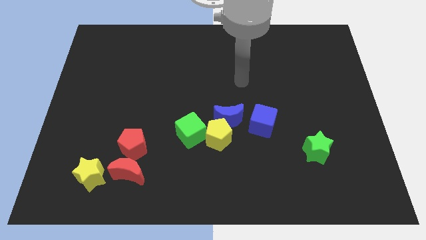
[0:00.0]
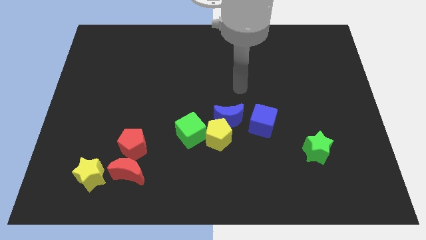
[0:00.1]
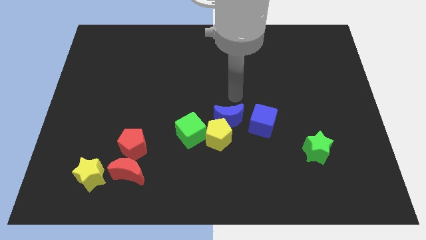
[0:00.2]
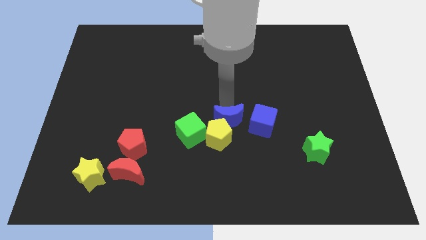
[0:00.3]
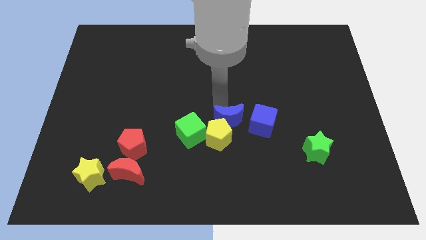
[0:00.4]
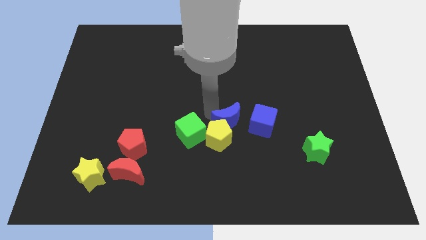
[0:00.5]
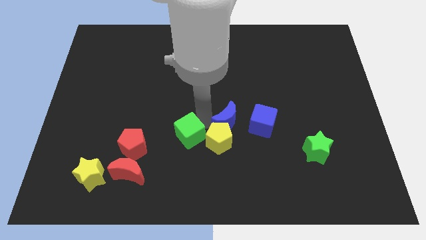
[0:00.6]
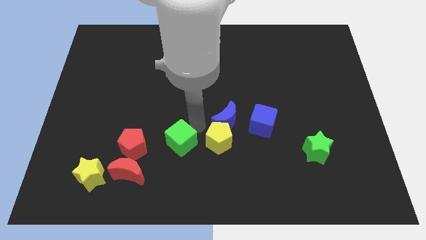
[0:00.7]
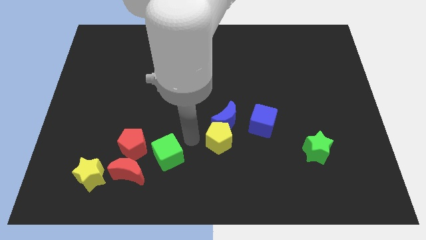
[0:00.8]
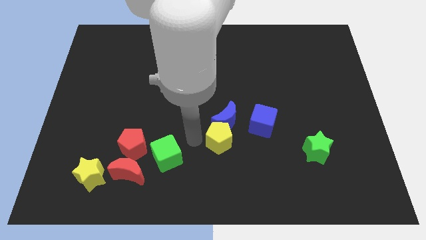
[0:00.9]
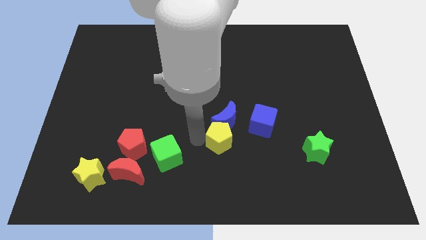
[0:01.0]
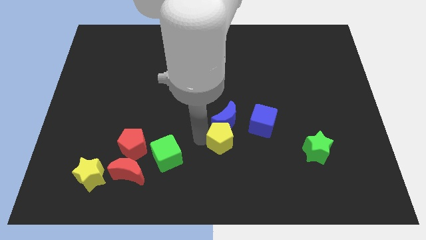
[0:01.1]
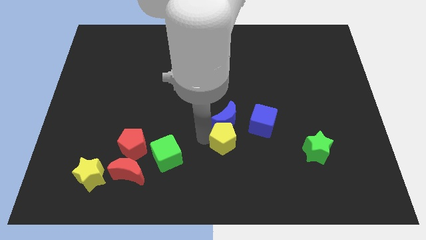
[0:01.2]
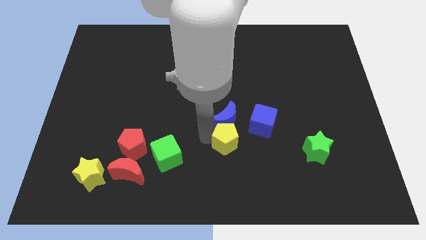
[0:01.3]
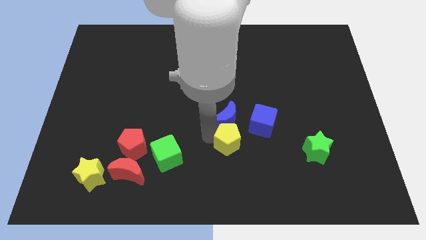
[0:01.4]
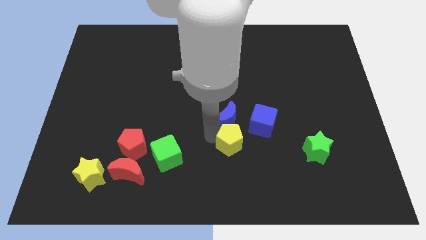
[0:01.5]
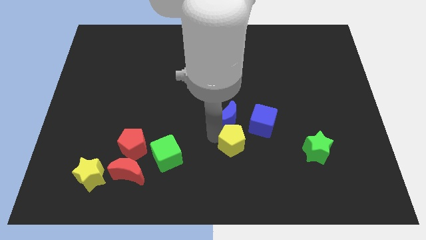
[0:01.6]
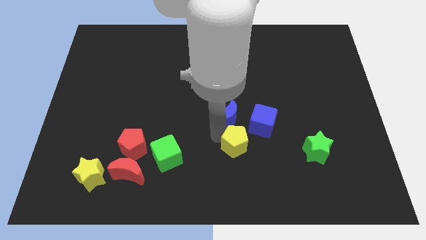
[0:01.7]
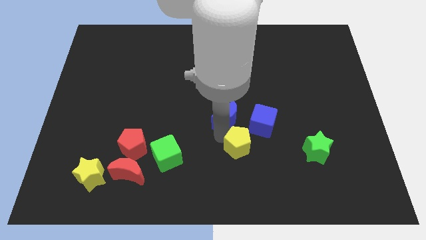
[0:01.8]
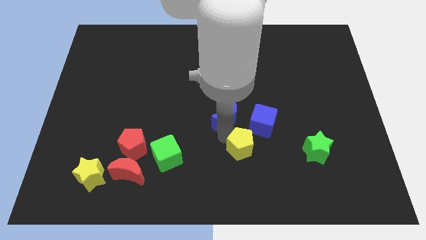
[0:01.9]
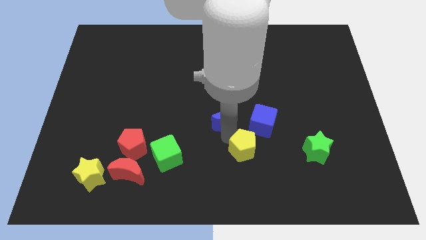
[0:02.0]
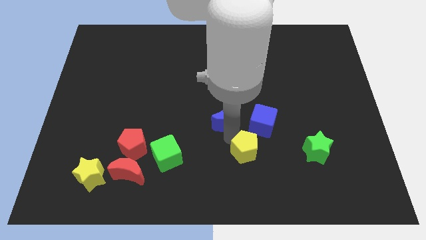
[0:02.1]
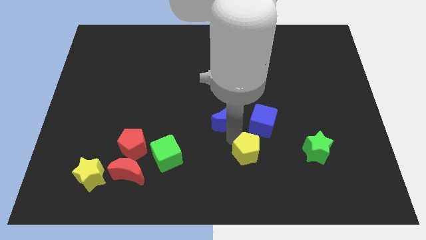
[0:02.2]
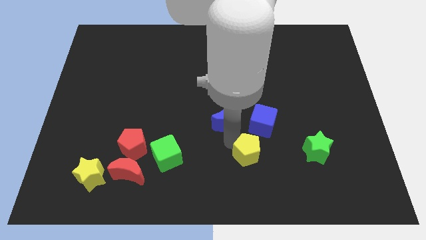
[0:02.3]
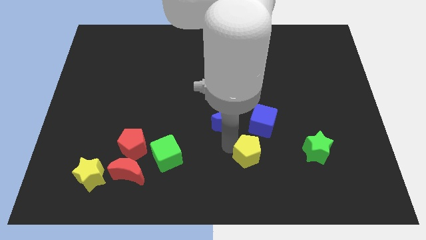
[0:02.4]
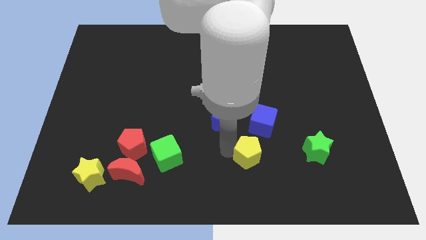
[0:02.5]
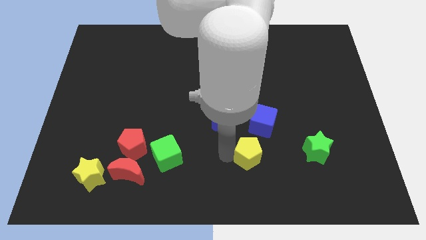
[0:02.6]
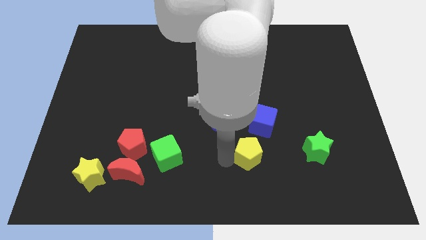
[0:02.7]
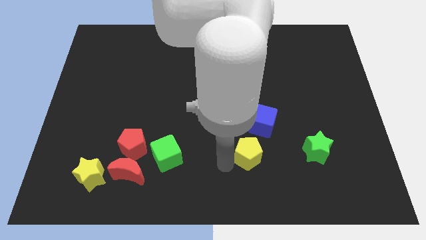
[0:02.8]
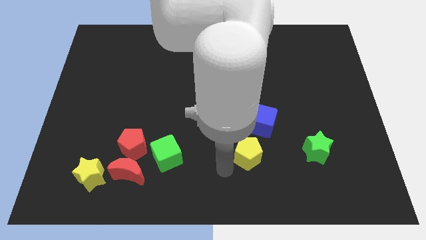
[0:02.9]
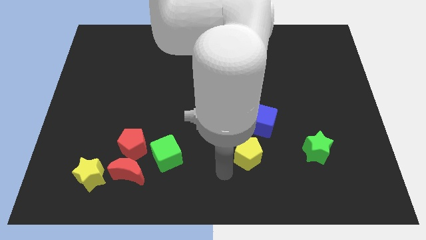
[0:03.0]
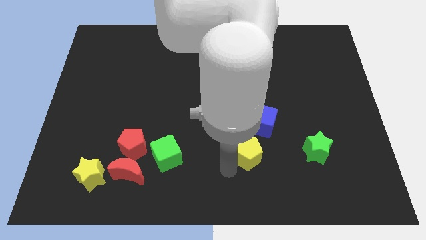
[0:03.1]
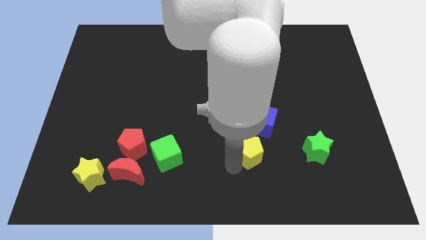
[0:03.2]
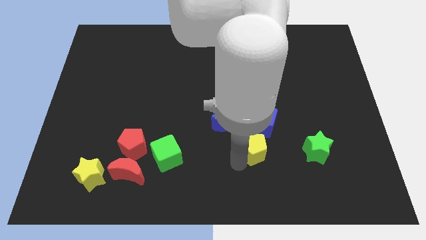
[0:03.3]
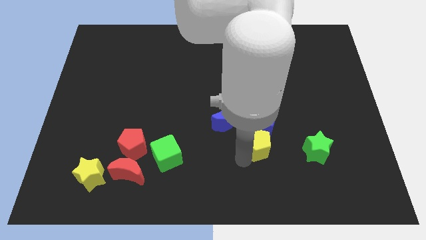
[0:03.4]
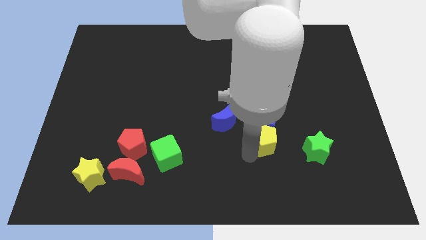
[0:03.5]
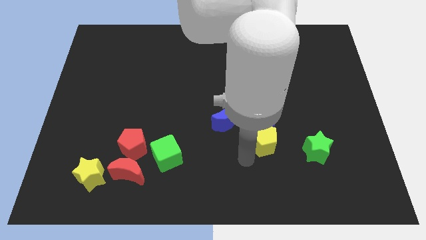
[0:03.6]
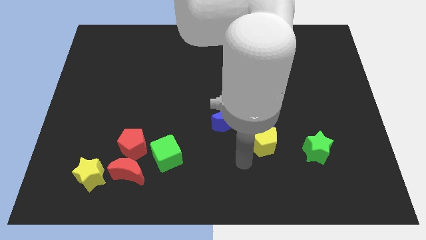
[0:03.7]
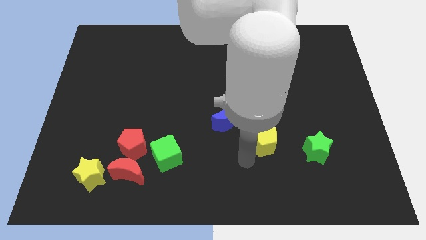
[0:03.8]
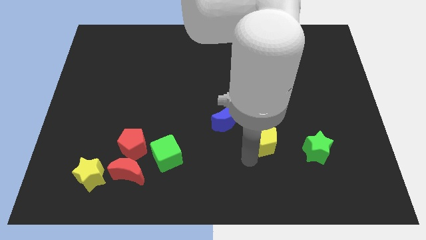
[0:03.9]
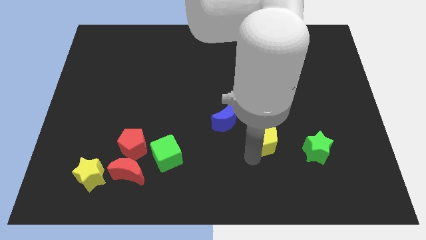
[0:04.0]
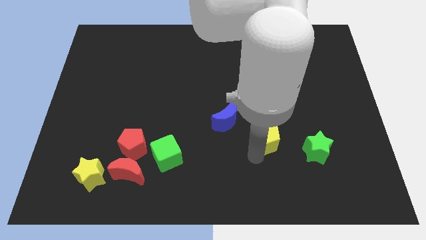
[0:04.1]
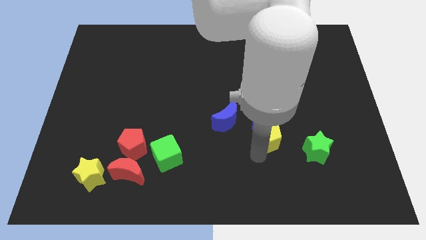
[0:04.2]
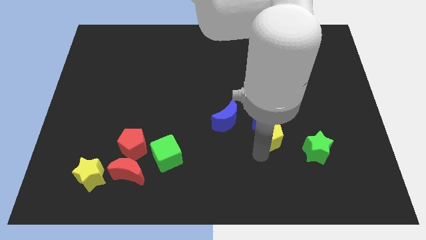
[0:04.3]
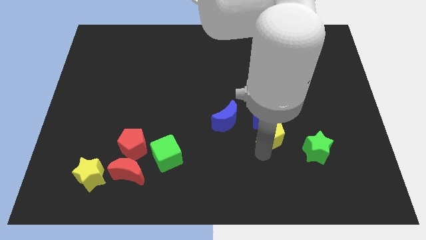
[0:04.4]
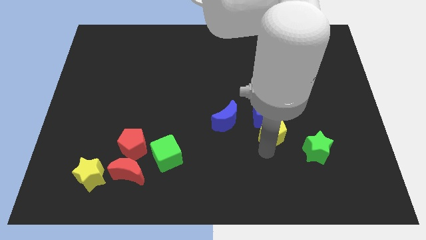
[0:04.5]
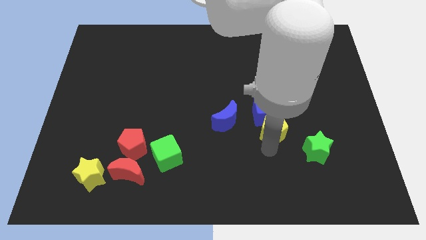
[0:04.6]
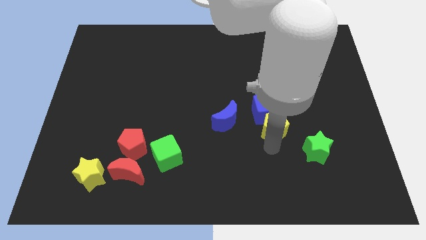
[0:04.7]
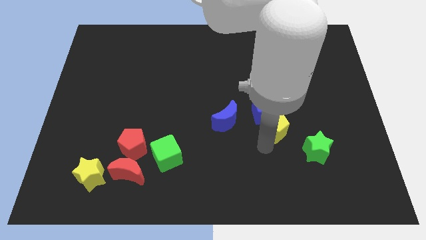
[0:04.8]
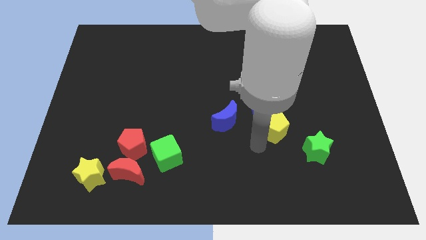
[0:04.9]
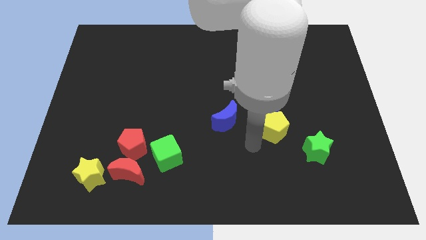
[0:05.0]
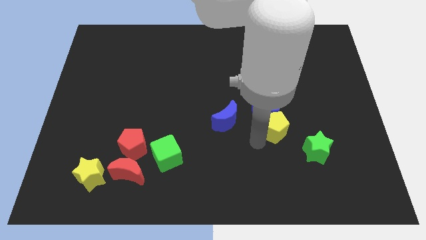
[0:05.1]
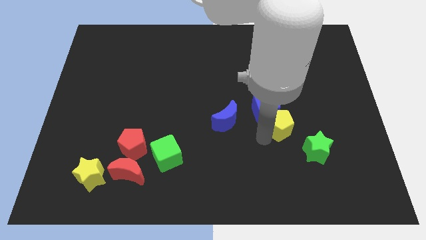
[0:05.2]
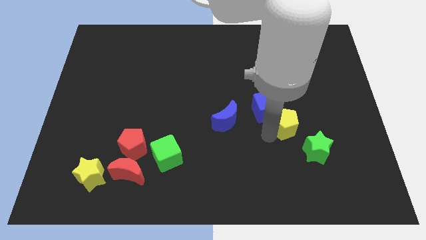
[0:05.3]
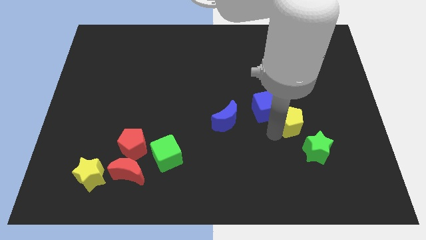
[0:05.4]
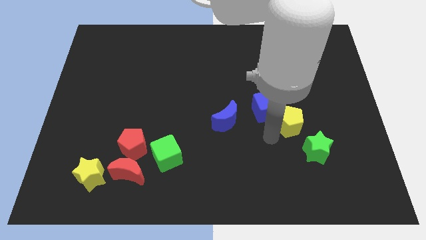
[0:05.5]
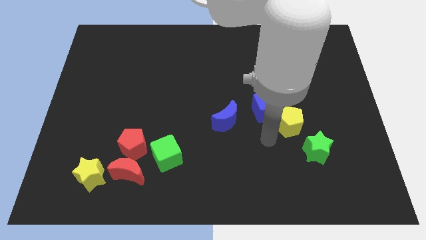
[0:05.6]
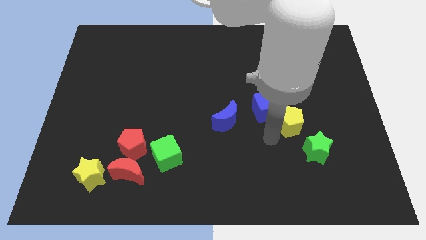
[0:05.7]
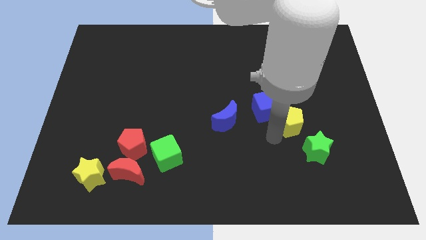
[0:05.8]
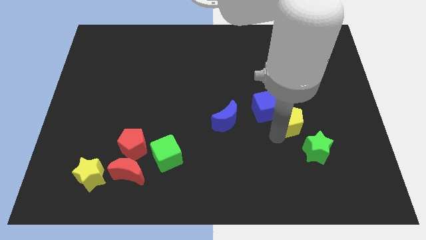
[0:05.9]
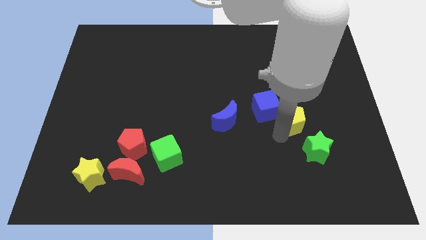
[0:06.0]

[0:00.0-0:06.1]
move the yellow pentagon to the top of the green star
